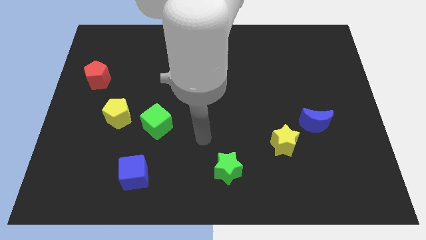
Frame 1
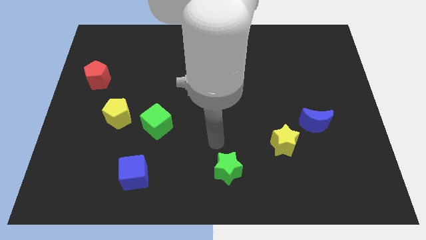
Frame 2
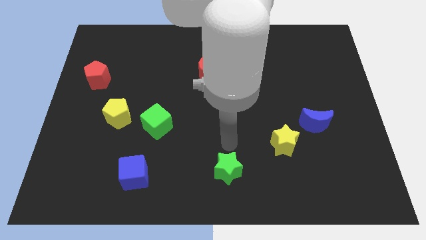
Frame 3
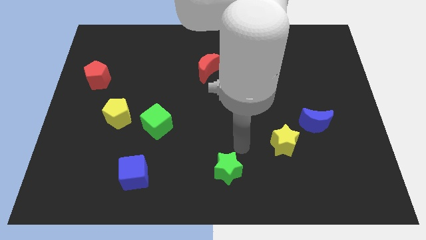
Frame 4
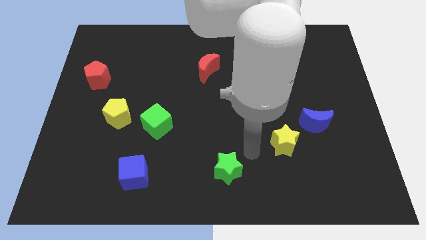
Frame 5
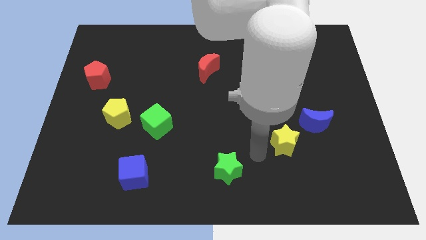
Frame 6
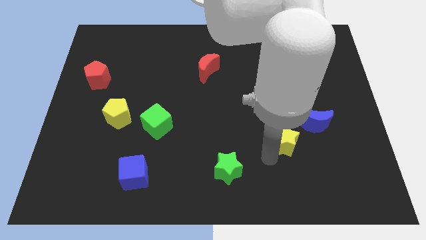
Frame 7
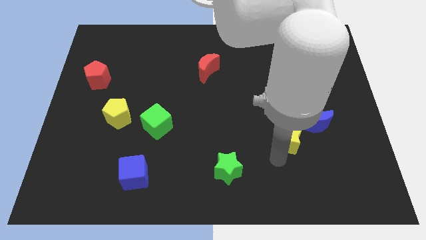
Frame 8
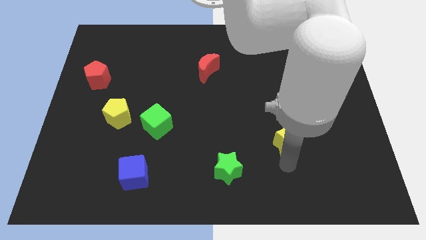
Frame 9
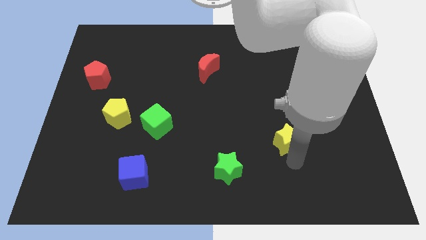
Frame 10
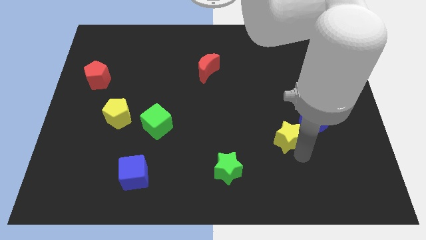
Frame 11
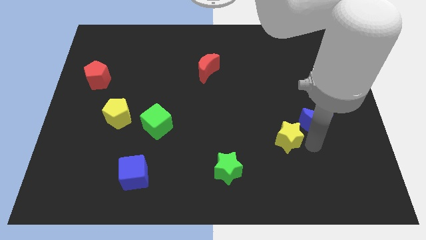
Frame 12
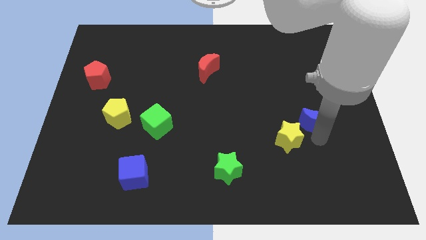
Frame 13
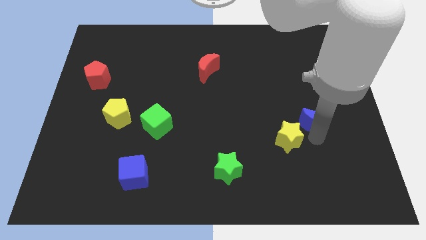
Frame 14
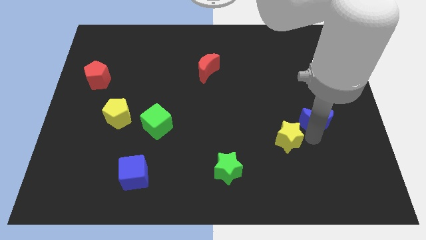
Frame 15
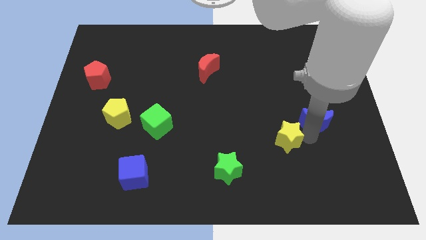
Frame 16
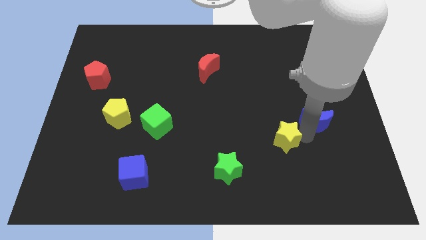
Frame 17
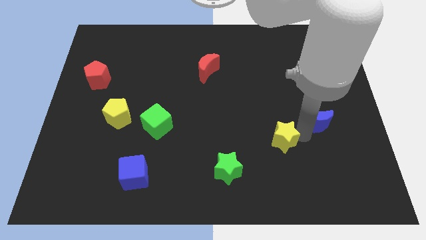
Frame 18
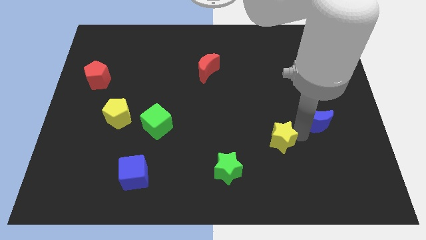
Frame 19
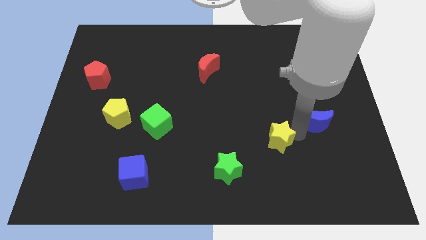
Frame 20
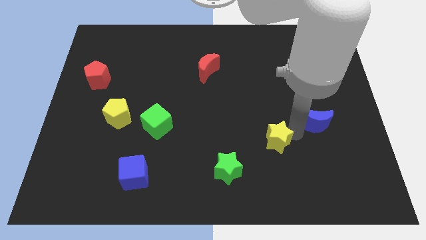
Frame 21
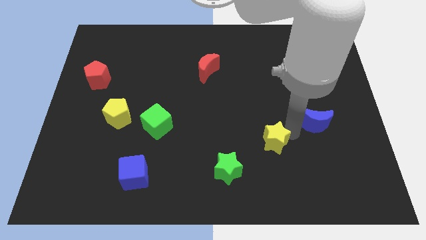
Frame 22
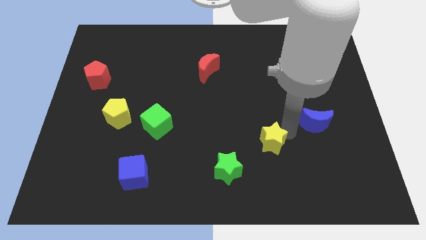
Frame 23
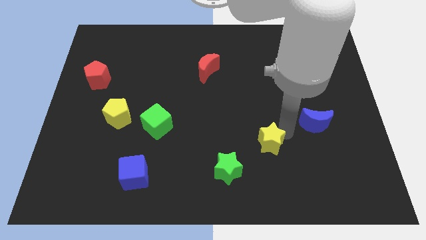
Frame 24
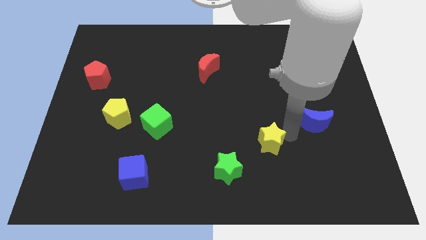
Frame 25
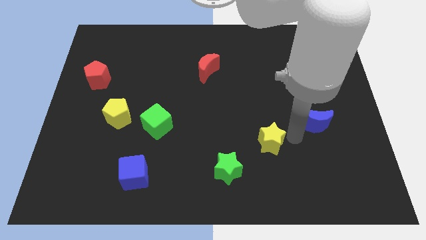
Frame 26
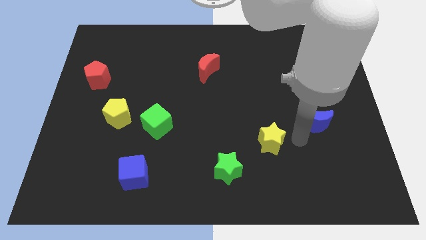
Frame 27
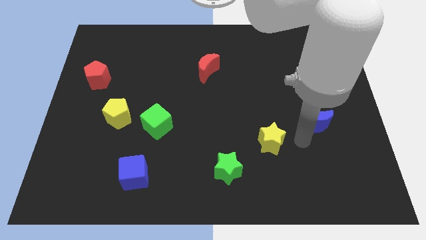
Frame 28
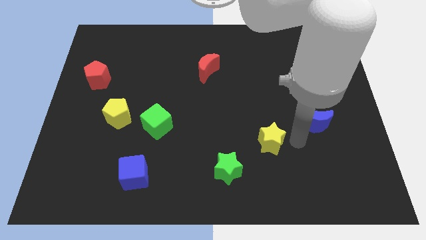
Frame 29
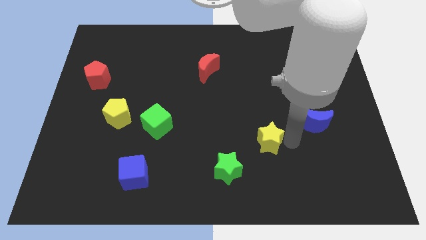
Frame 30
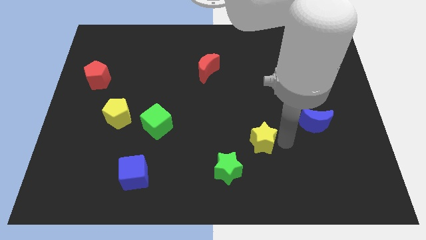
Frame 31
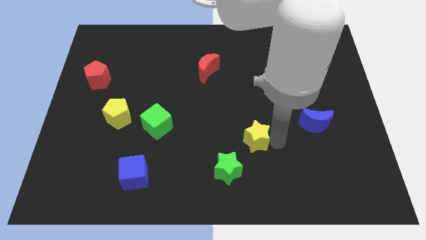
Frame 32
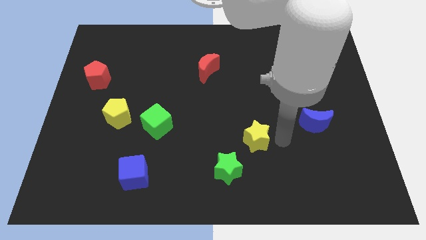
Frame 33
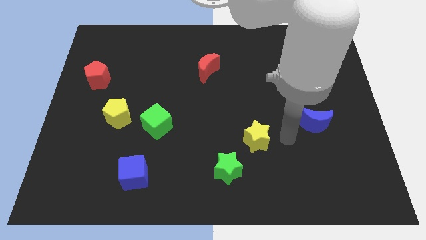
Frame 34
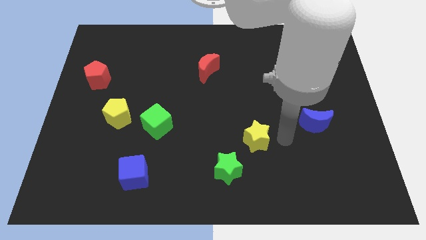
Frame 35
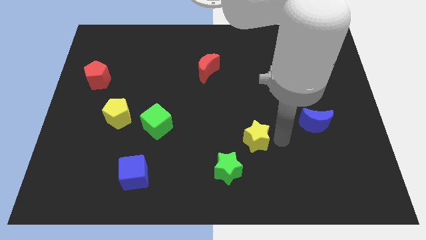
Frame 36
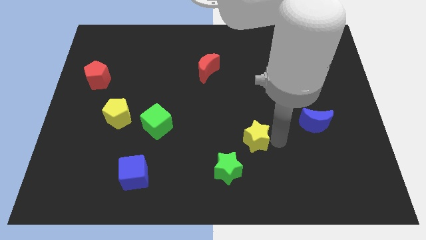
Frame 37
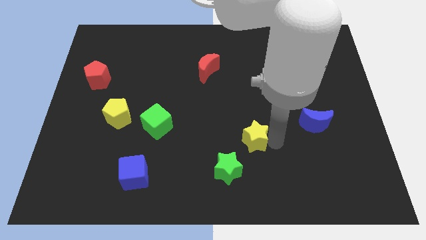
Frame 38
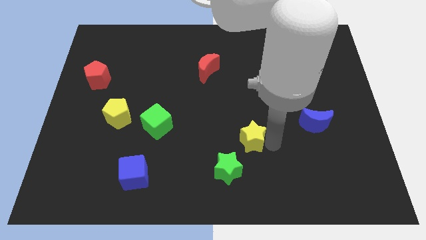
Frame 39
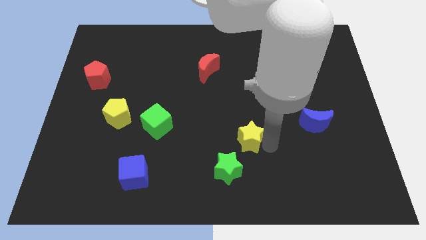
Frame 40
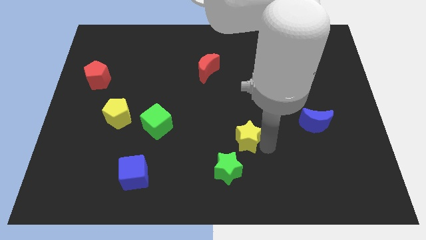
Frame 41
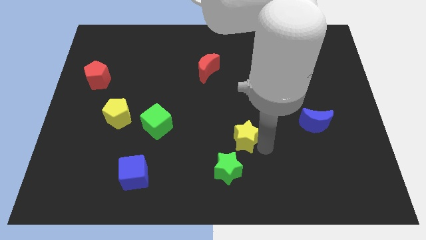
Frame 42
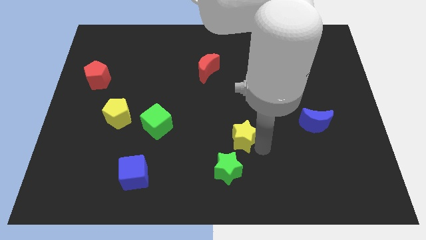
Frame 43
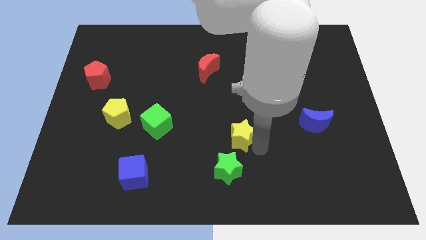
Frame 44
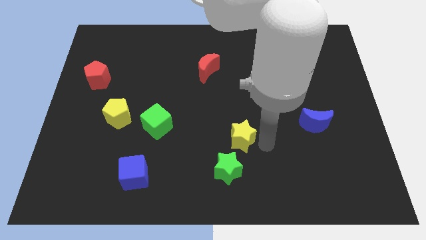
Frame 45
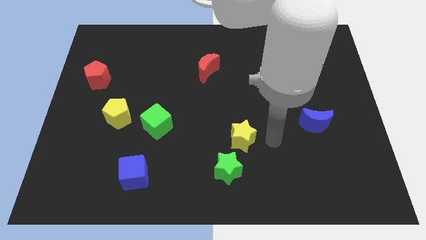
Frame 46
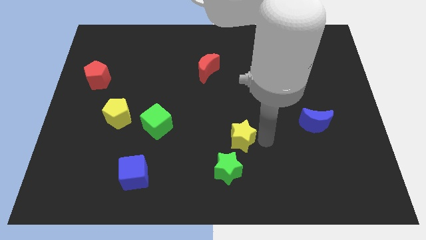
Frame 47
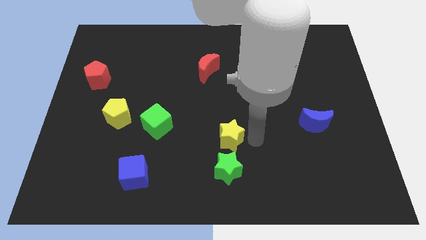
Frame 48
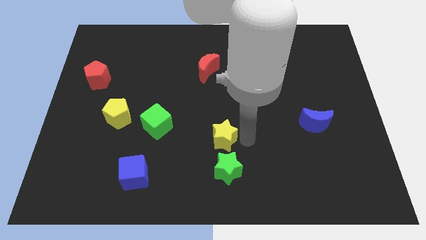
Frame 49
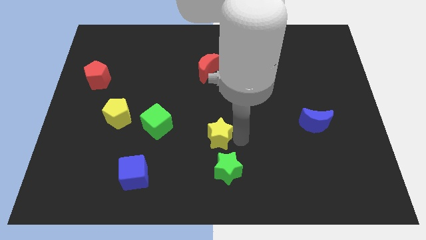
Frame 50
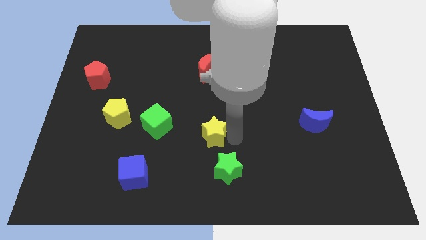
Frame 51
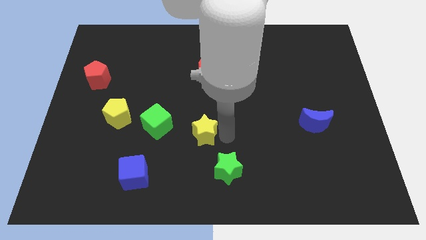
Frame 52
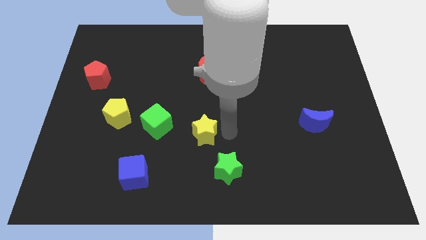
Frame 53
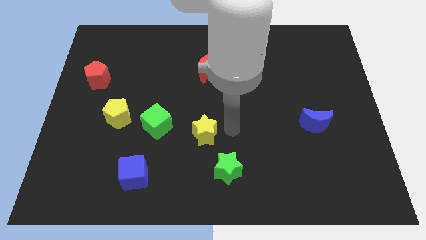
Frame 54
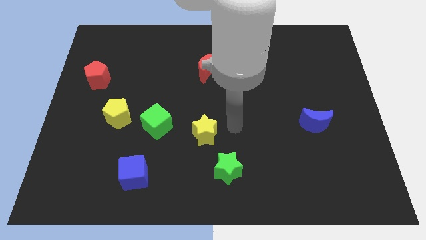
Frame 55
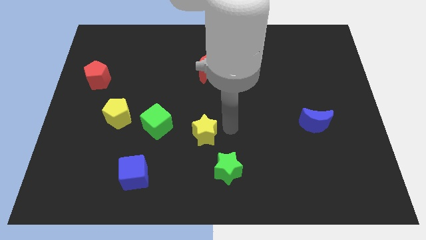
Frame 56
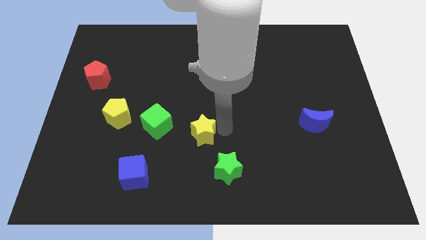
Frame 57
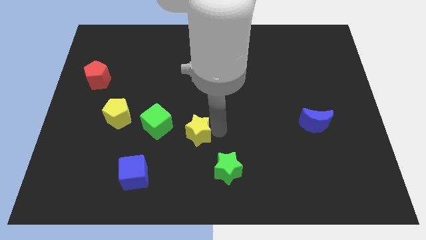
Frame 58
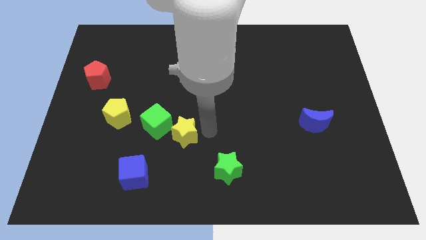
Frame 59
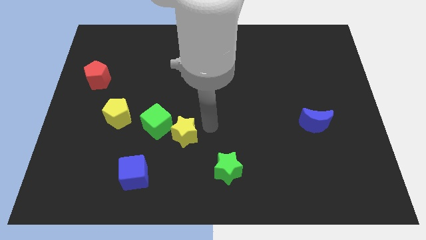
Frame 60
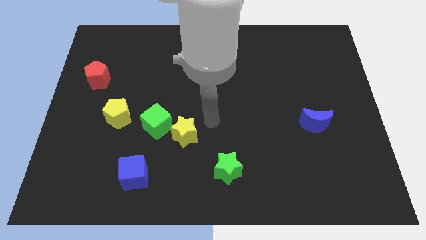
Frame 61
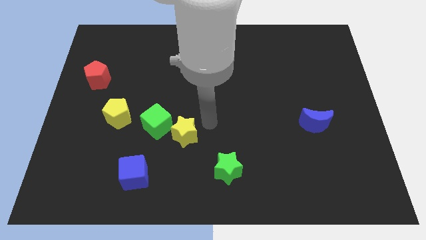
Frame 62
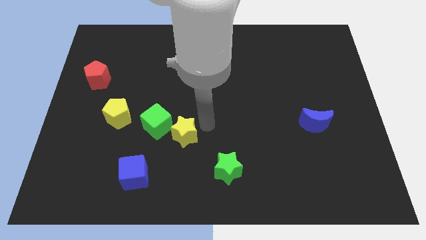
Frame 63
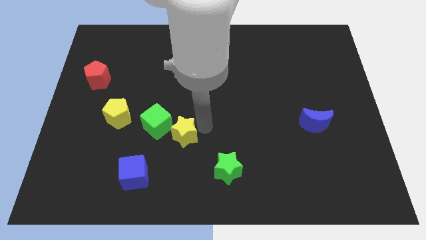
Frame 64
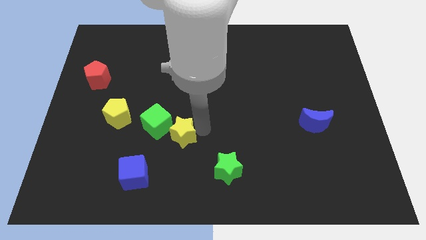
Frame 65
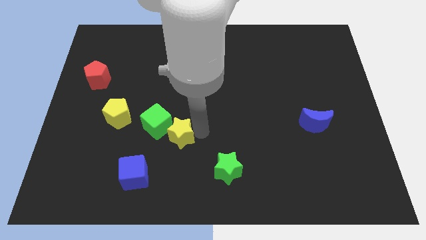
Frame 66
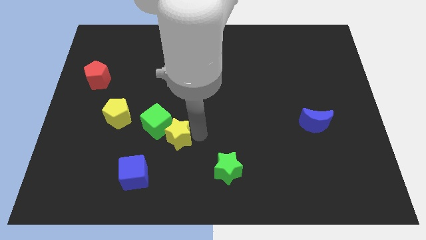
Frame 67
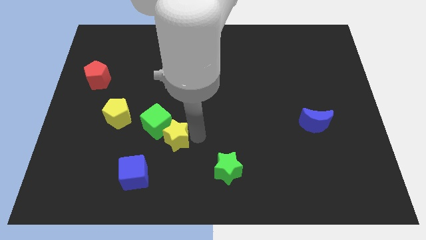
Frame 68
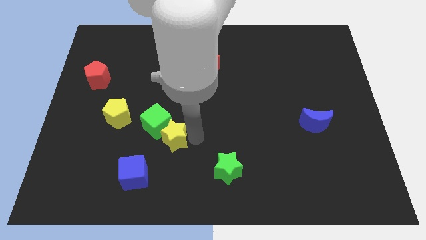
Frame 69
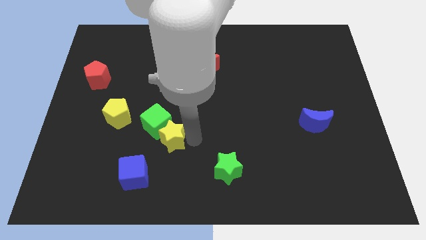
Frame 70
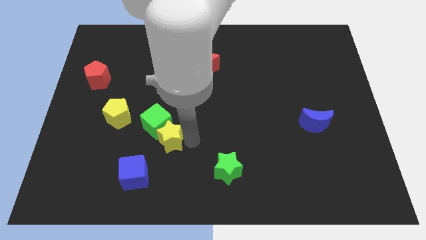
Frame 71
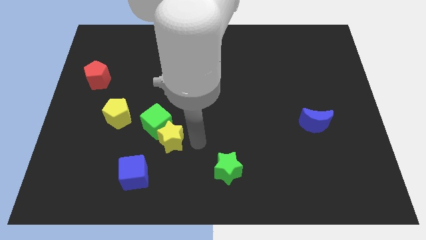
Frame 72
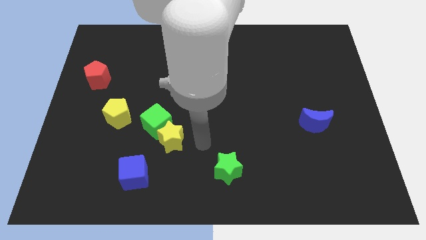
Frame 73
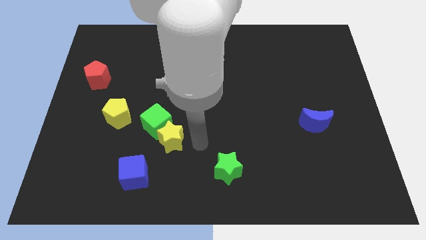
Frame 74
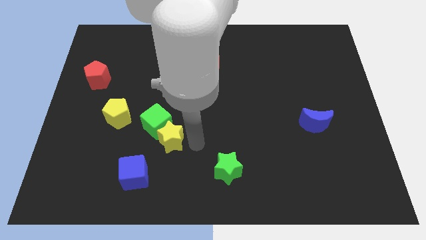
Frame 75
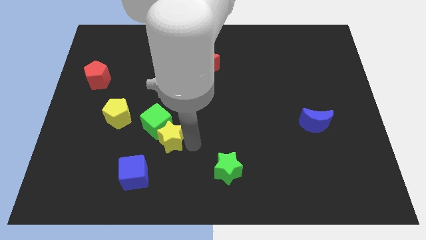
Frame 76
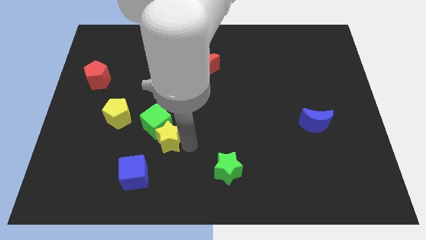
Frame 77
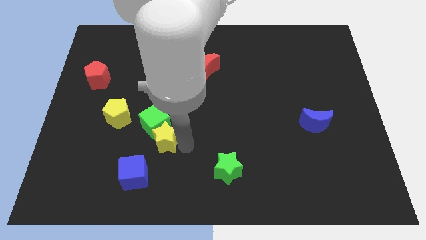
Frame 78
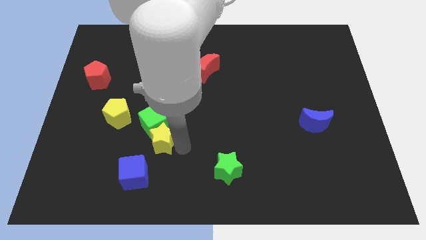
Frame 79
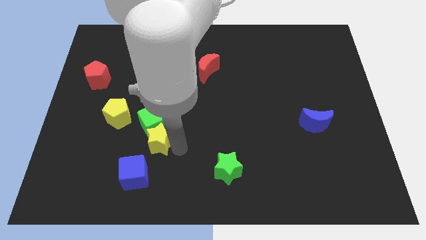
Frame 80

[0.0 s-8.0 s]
put the yellow star to the bottom right side of the yellow pentagon
